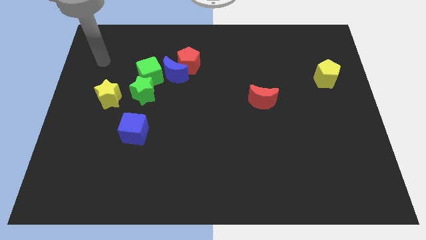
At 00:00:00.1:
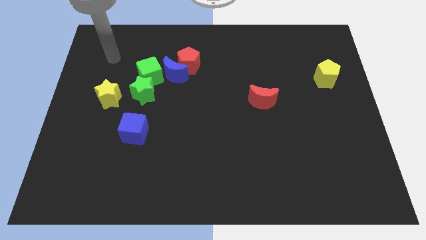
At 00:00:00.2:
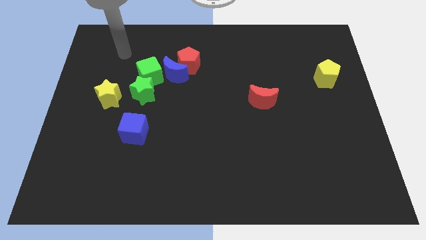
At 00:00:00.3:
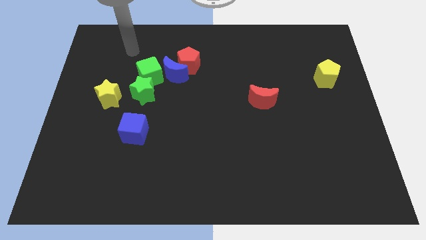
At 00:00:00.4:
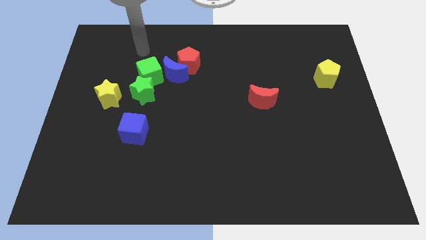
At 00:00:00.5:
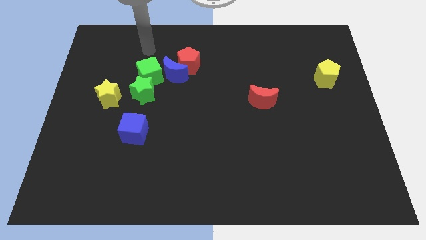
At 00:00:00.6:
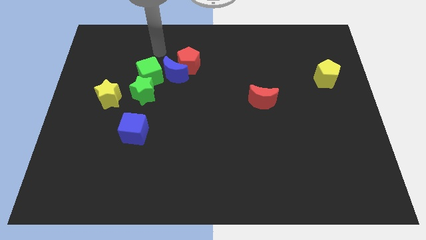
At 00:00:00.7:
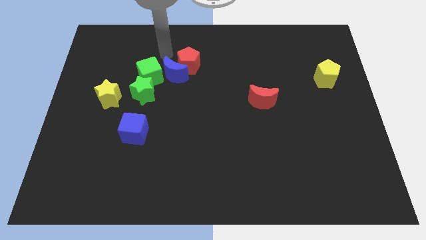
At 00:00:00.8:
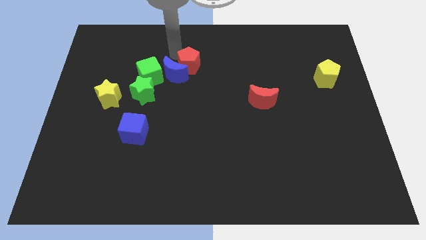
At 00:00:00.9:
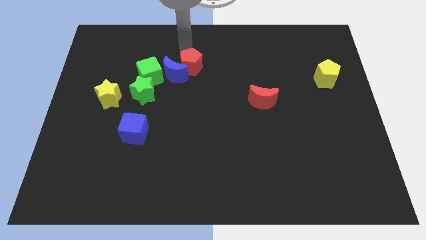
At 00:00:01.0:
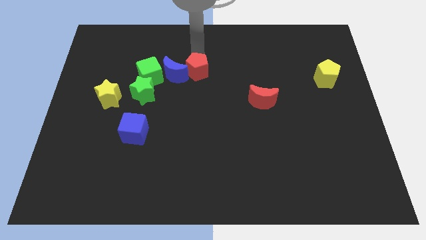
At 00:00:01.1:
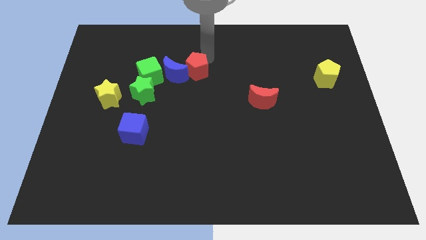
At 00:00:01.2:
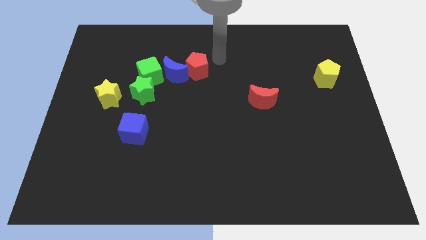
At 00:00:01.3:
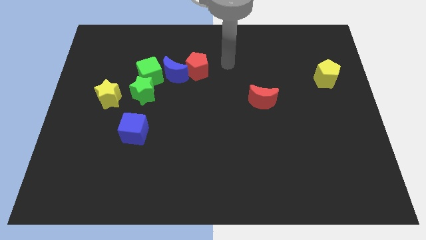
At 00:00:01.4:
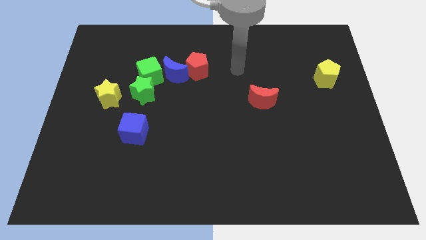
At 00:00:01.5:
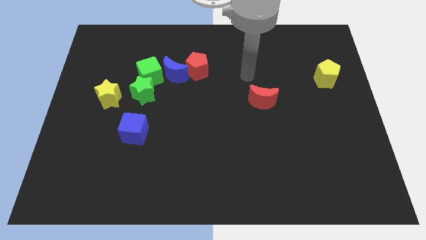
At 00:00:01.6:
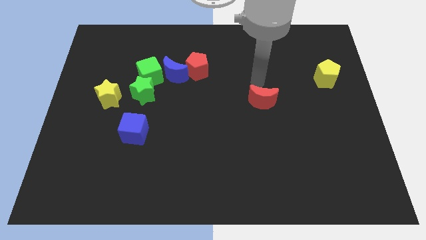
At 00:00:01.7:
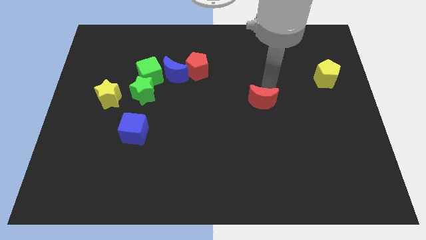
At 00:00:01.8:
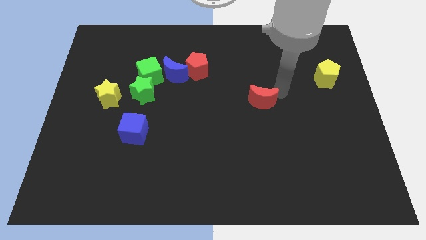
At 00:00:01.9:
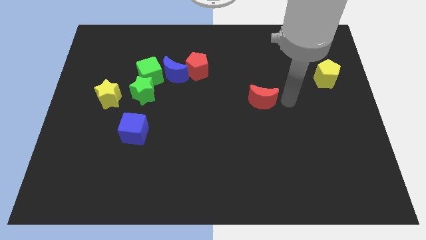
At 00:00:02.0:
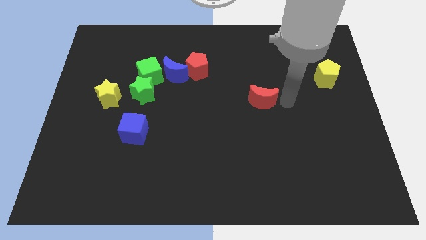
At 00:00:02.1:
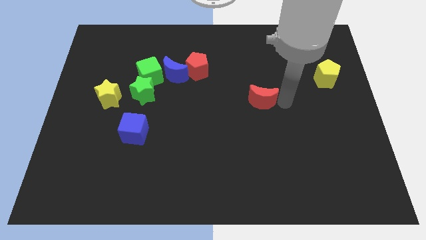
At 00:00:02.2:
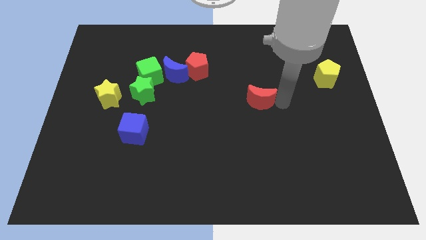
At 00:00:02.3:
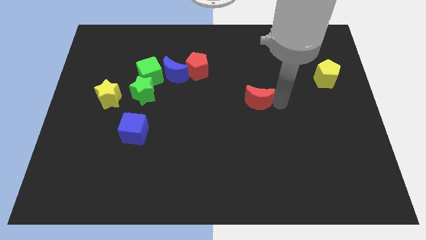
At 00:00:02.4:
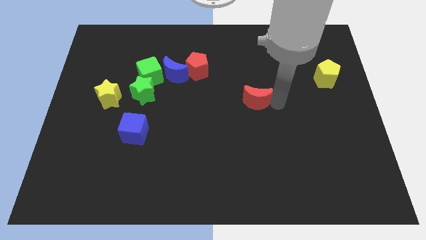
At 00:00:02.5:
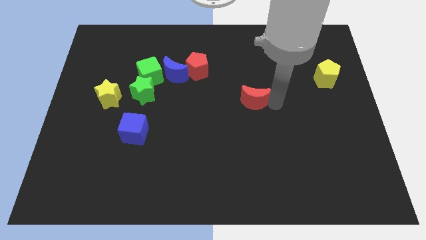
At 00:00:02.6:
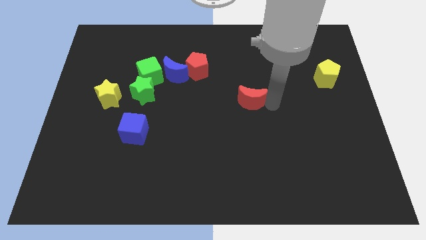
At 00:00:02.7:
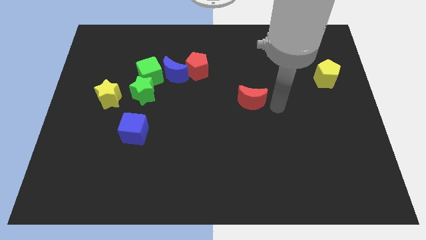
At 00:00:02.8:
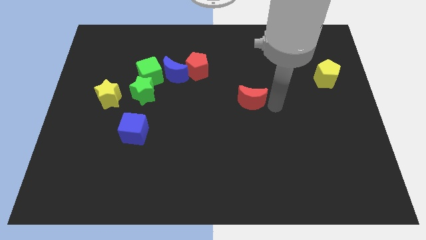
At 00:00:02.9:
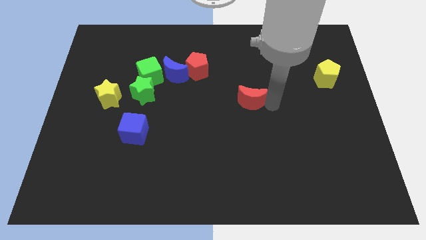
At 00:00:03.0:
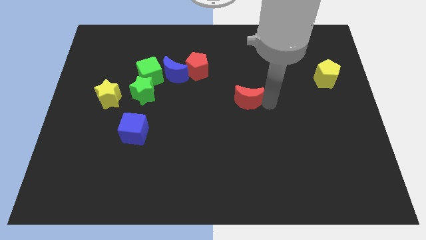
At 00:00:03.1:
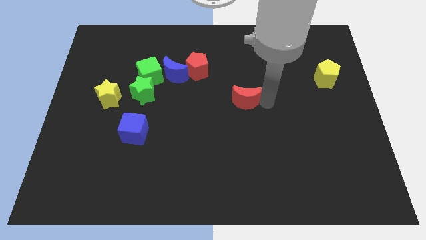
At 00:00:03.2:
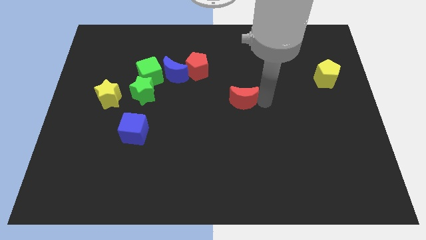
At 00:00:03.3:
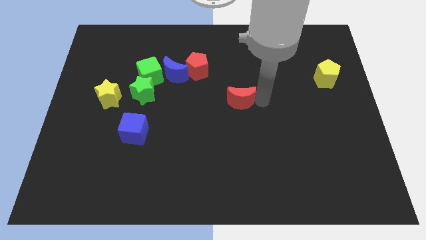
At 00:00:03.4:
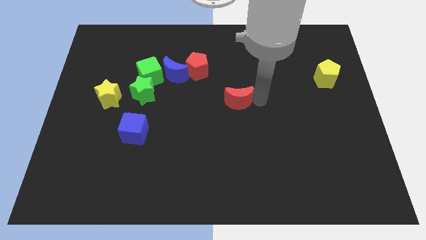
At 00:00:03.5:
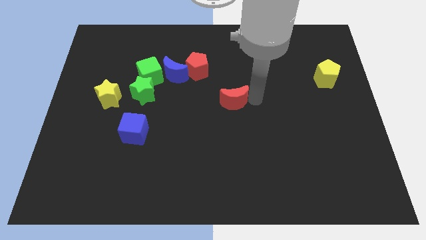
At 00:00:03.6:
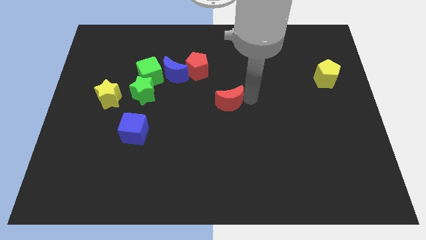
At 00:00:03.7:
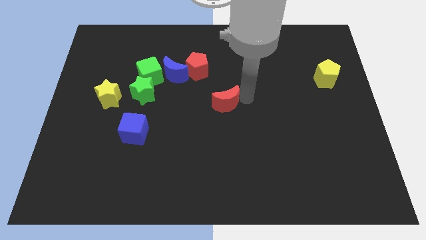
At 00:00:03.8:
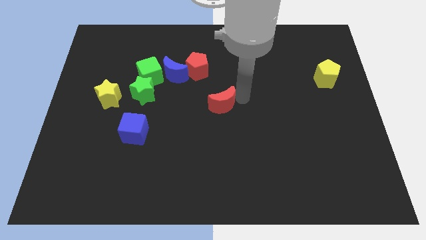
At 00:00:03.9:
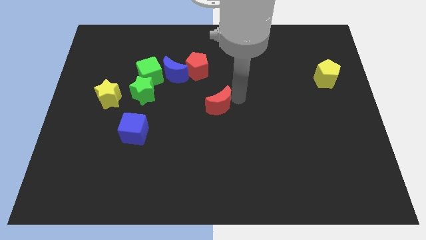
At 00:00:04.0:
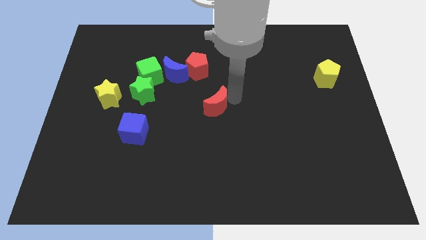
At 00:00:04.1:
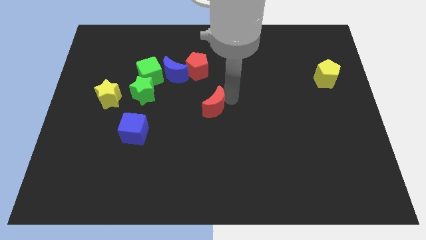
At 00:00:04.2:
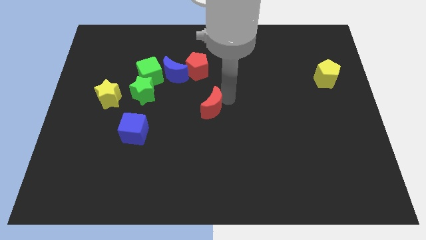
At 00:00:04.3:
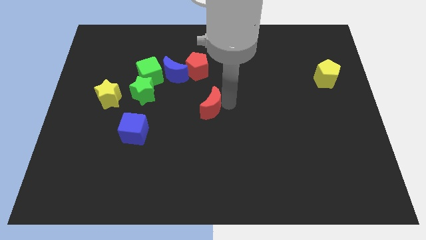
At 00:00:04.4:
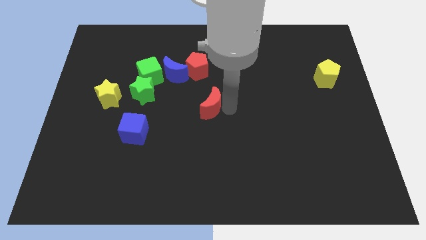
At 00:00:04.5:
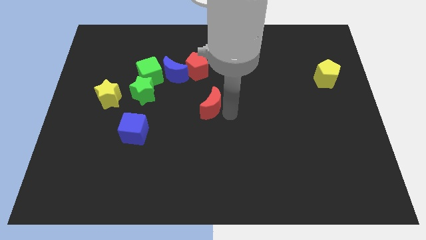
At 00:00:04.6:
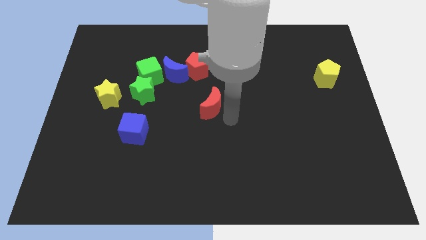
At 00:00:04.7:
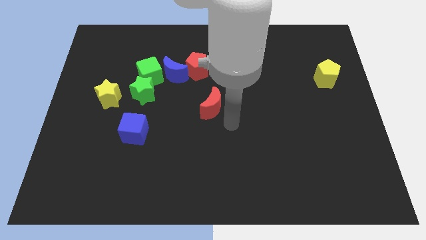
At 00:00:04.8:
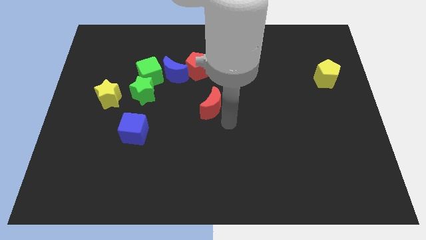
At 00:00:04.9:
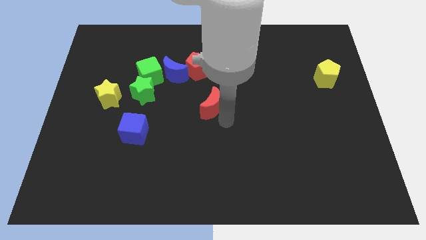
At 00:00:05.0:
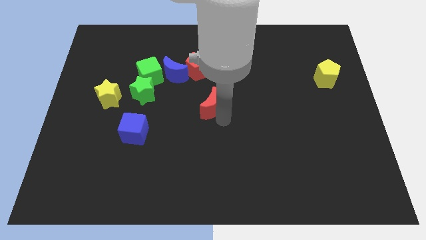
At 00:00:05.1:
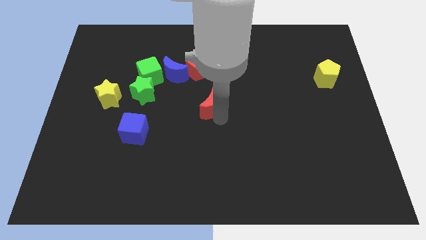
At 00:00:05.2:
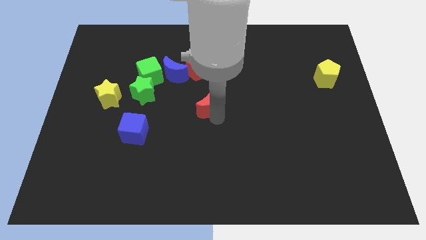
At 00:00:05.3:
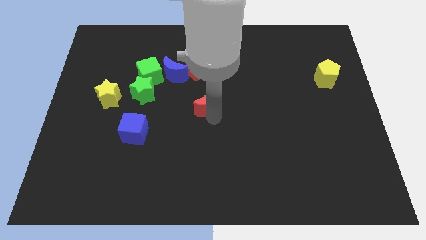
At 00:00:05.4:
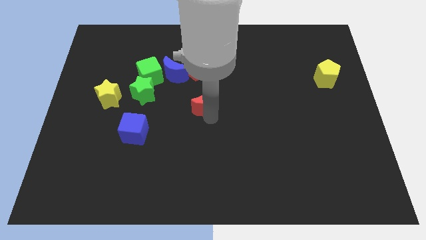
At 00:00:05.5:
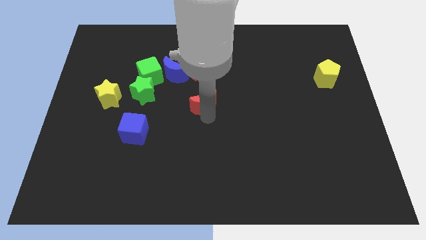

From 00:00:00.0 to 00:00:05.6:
push the red moon to the bottom right side of the blue moon
